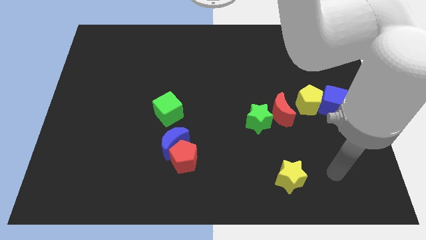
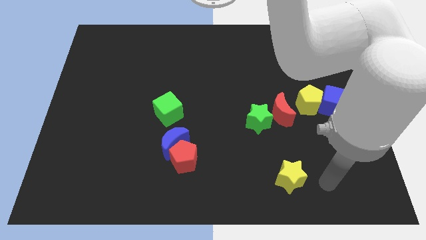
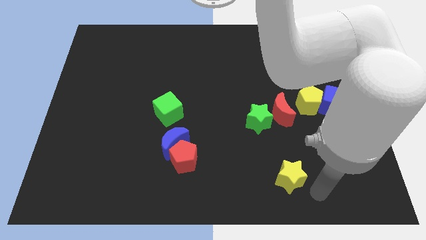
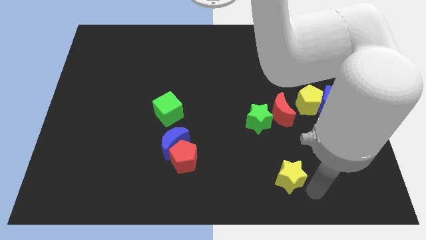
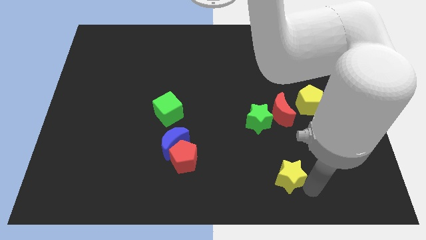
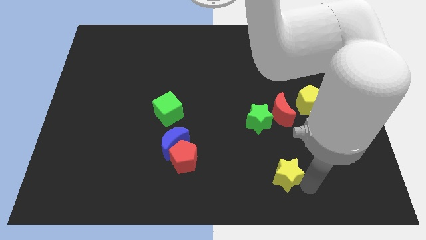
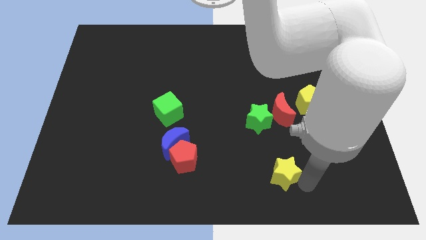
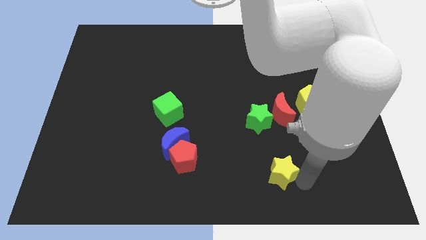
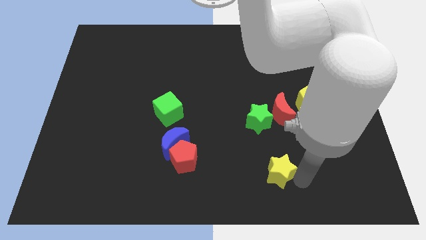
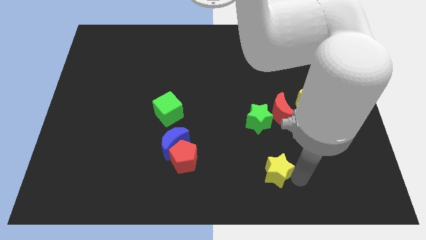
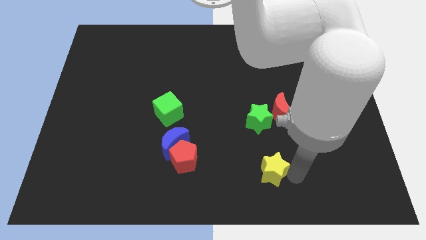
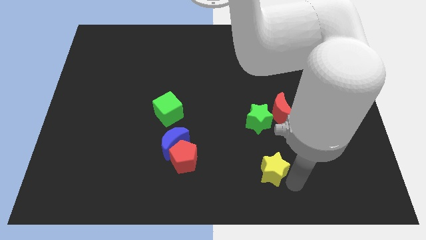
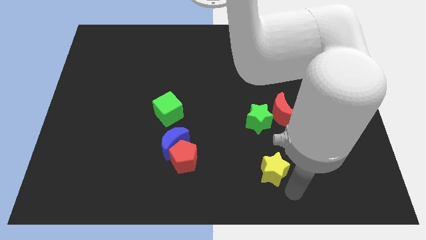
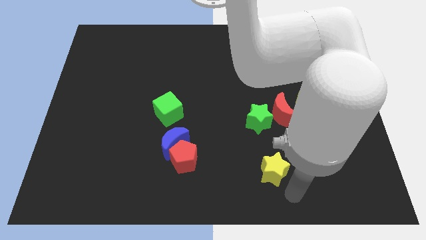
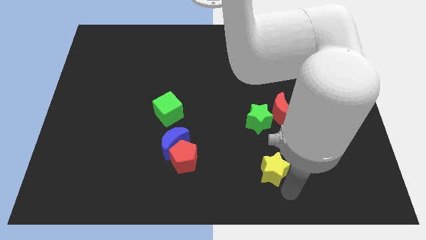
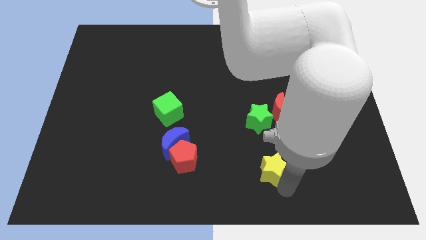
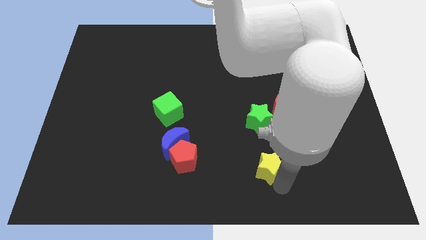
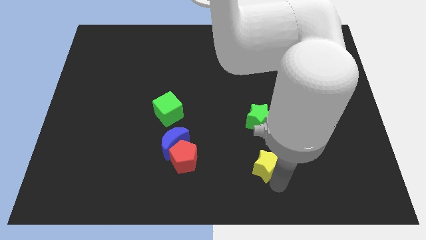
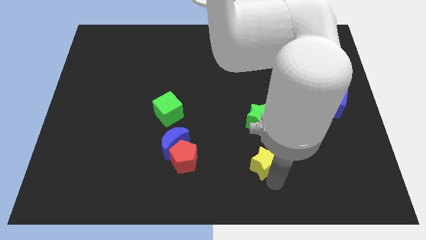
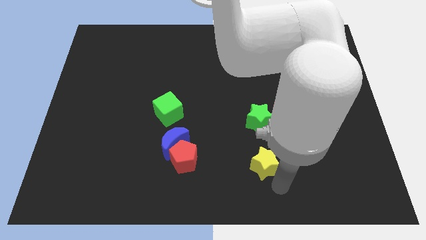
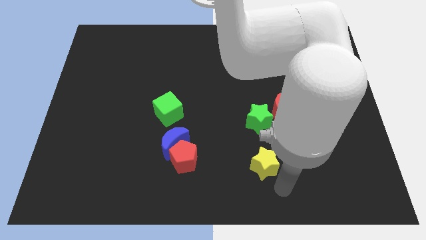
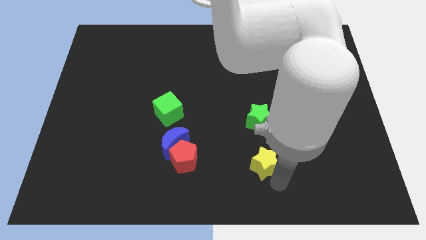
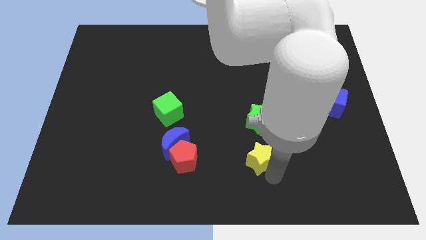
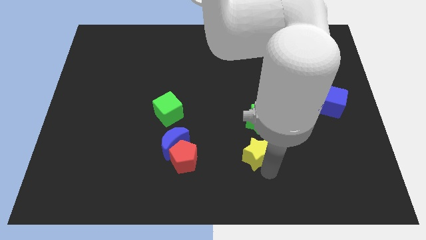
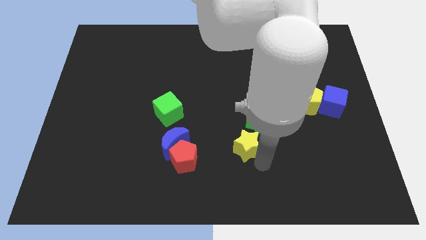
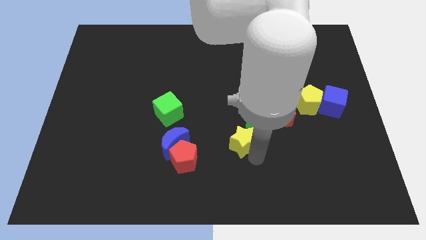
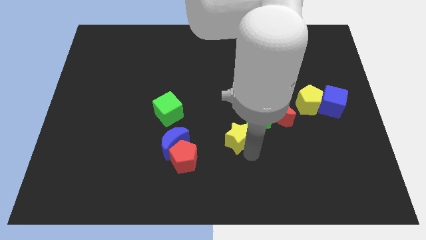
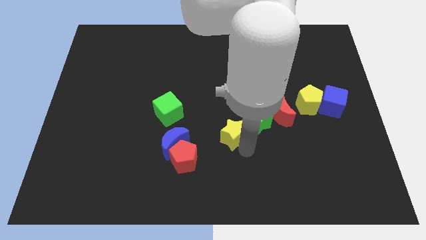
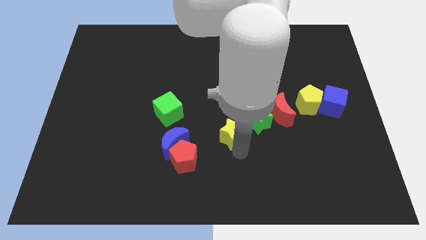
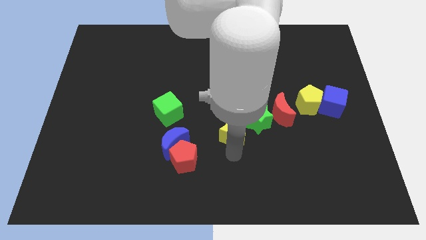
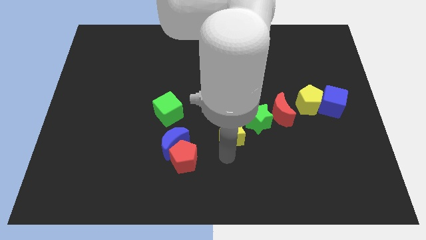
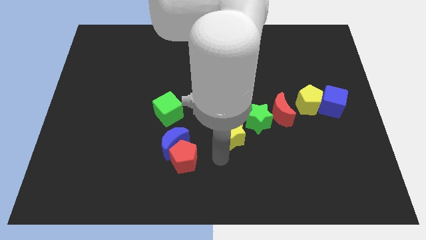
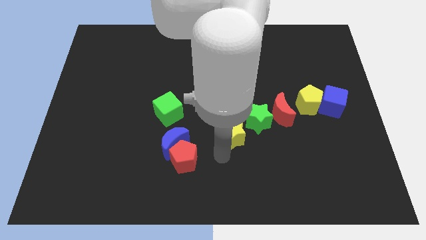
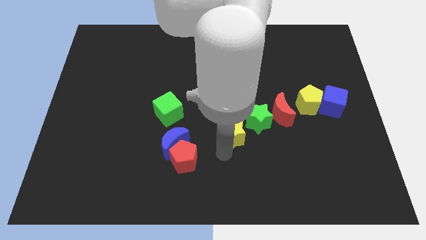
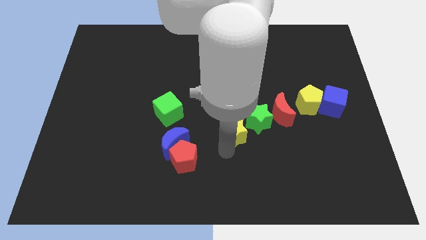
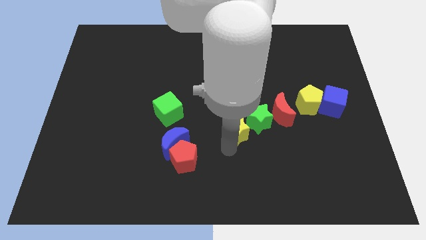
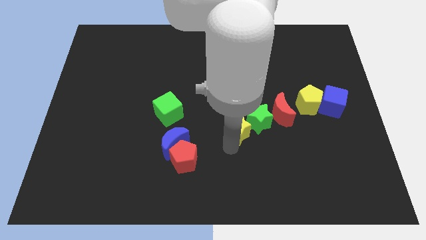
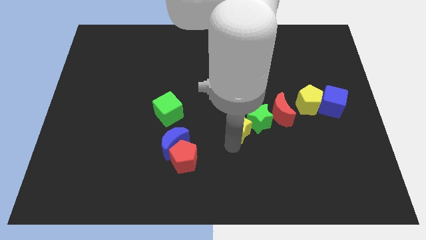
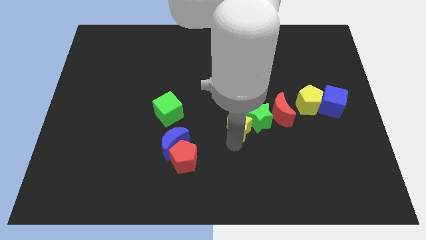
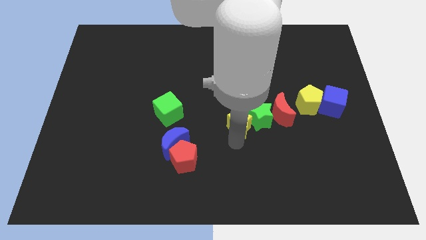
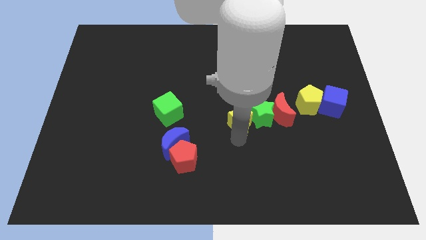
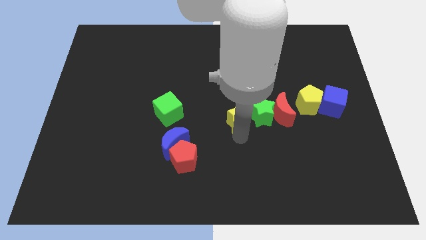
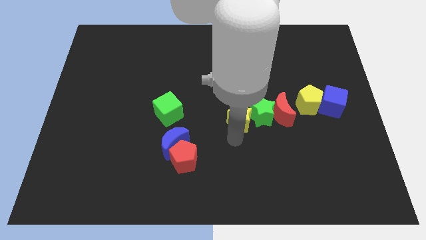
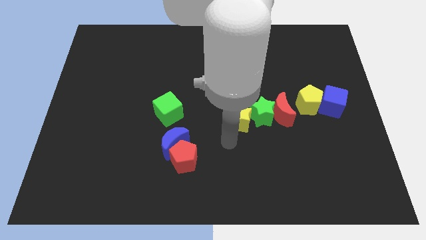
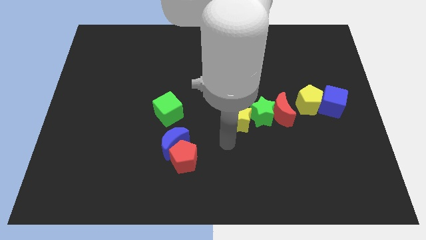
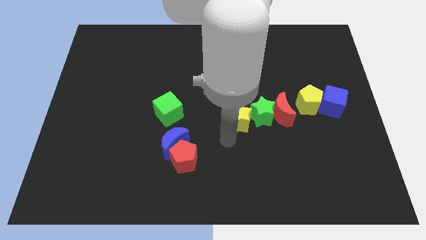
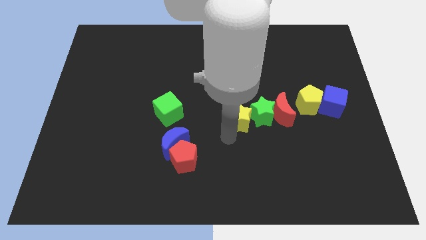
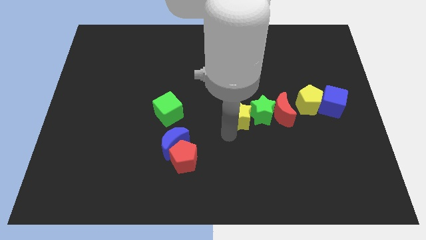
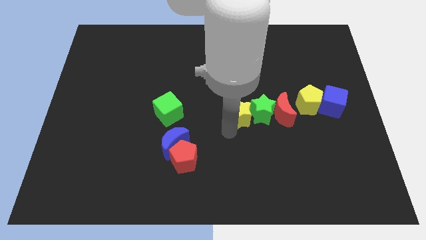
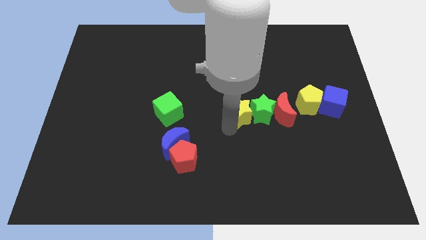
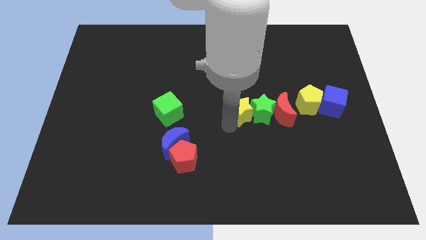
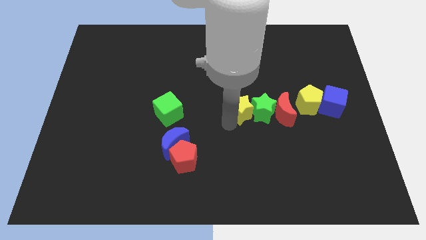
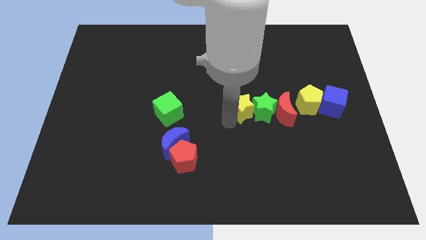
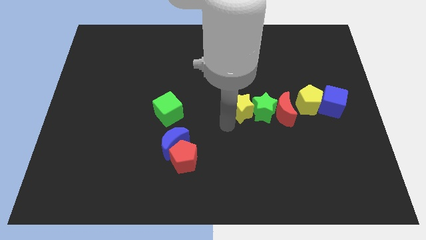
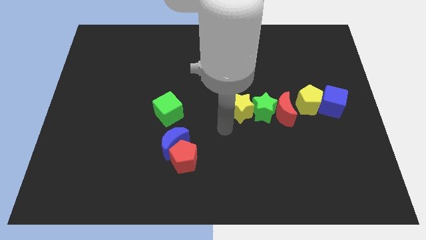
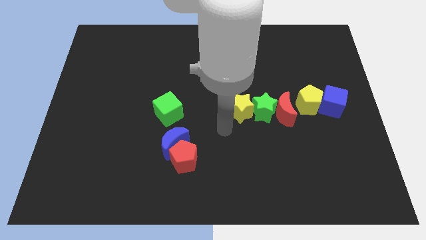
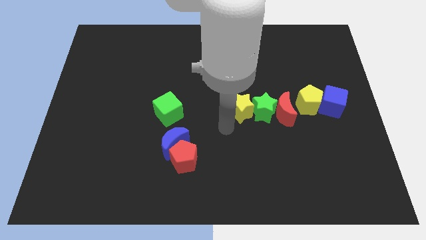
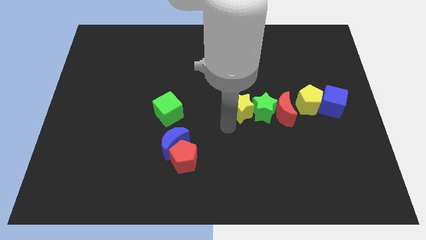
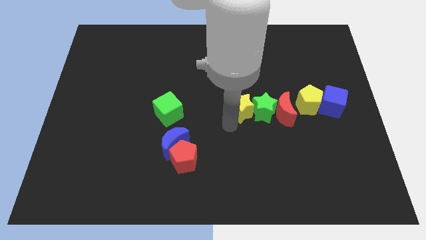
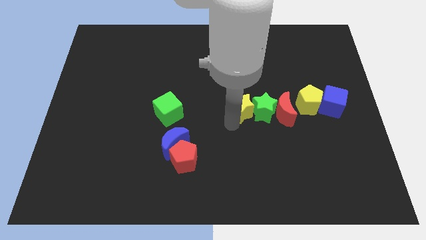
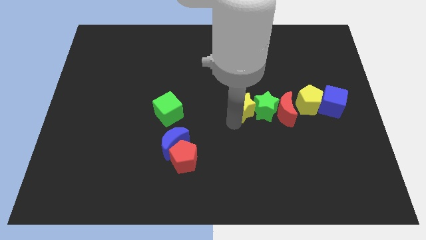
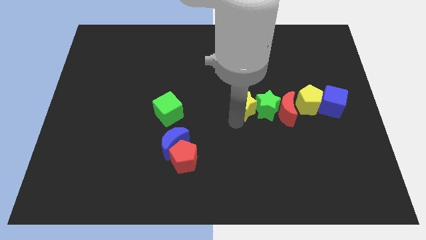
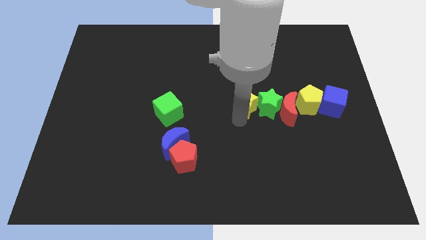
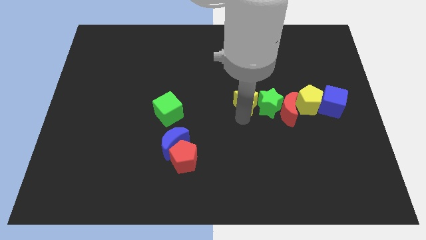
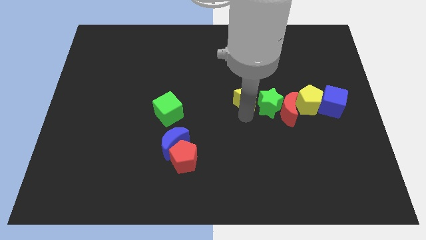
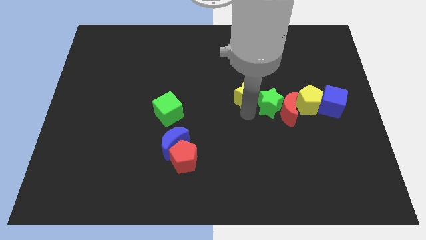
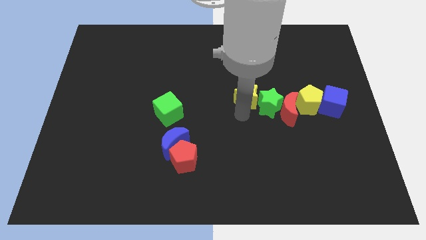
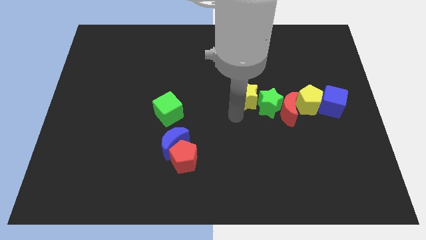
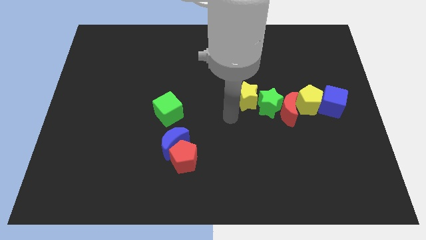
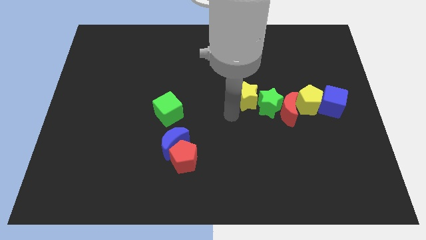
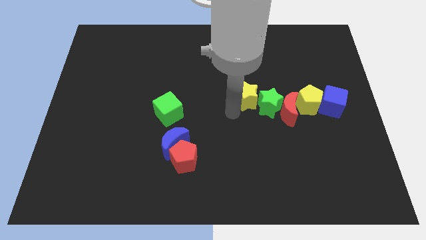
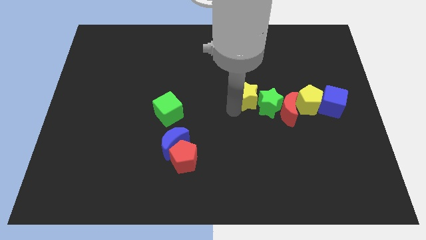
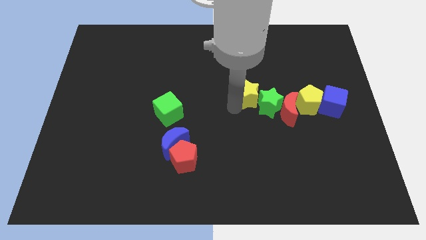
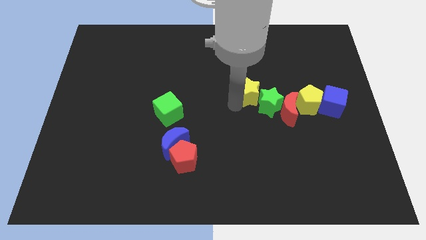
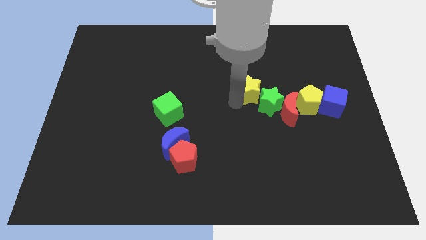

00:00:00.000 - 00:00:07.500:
slide the yellow star up

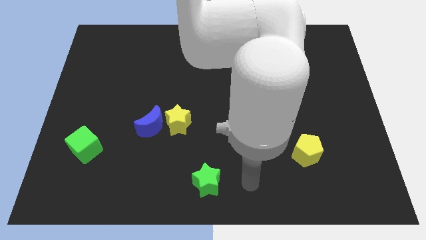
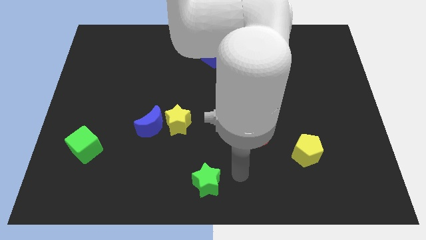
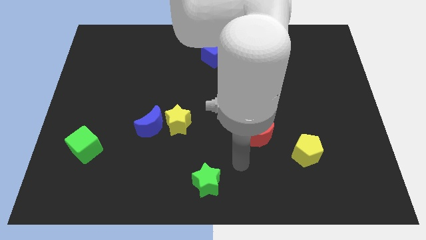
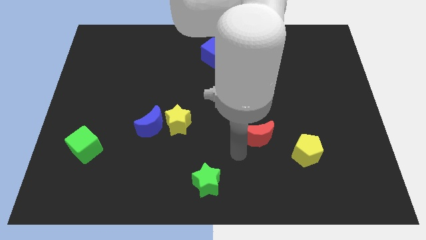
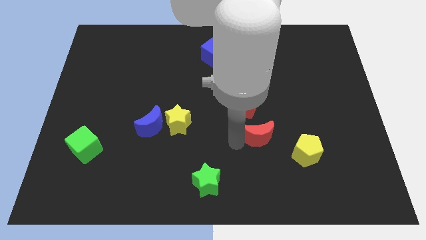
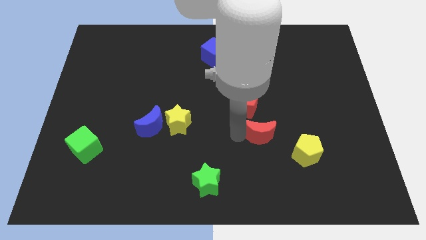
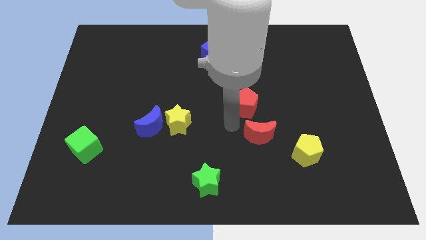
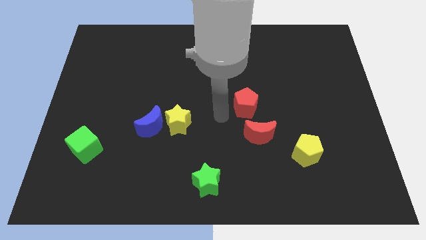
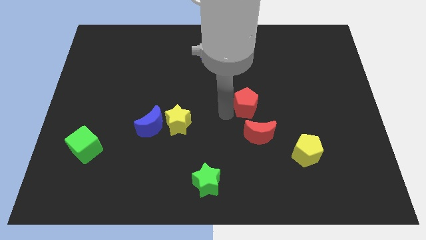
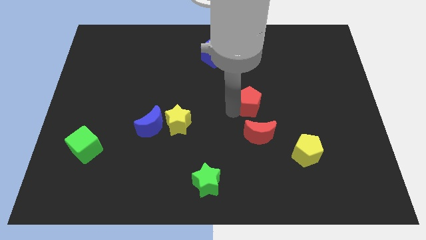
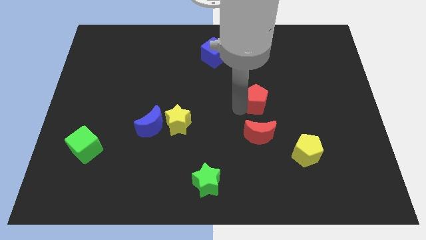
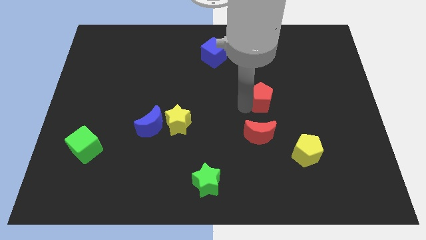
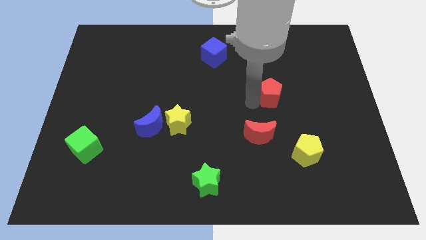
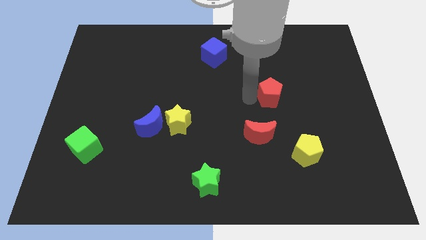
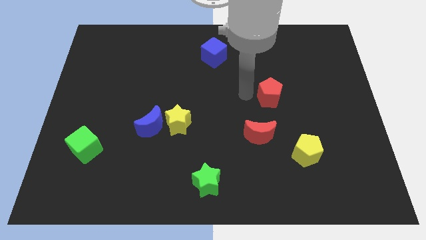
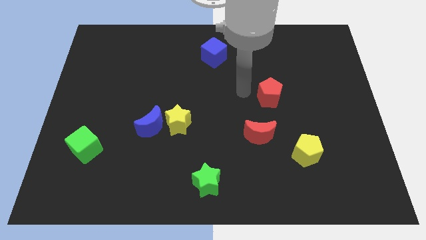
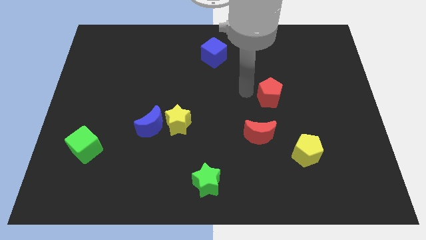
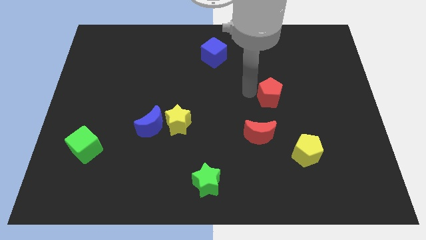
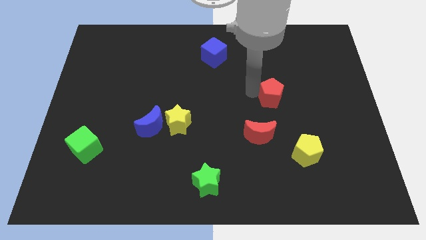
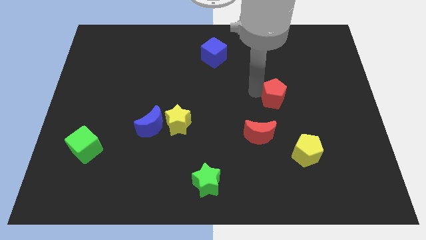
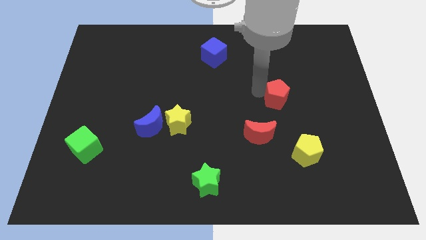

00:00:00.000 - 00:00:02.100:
move the red pentagon slightly right
